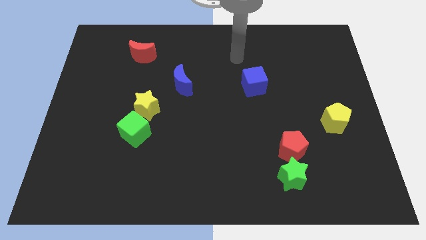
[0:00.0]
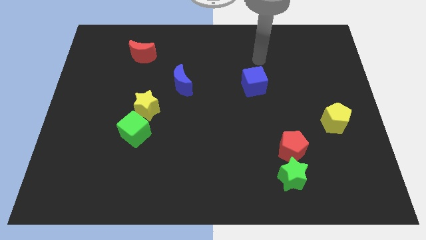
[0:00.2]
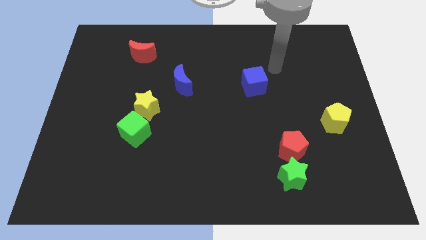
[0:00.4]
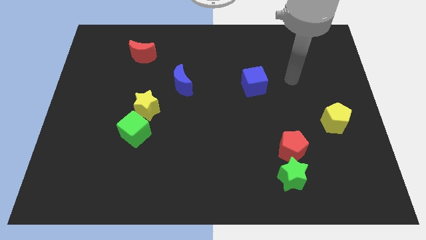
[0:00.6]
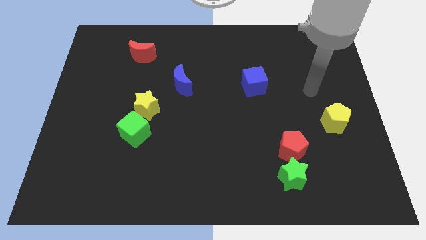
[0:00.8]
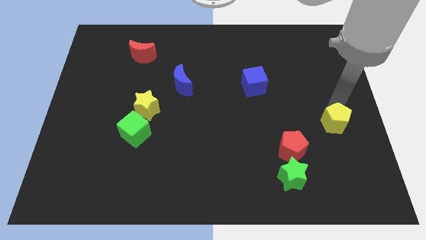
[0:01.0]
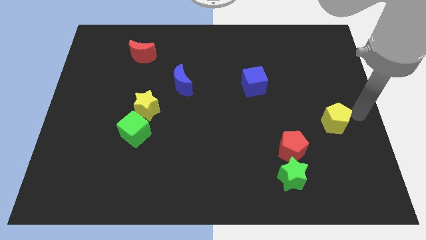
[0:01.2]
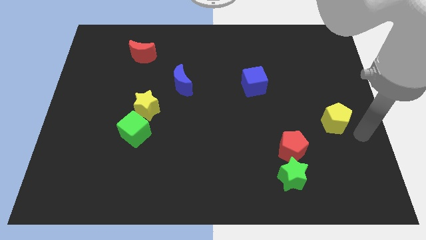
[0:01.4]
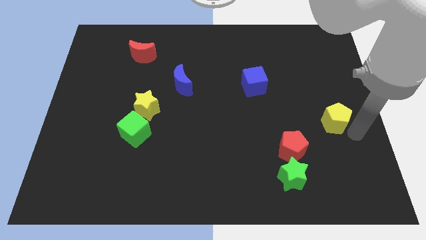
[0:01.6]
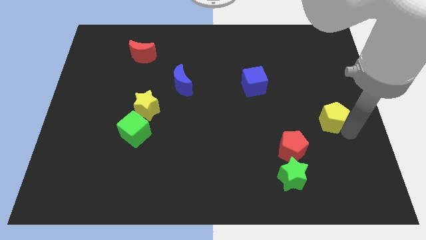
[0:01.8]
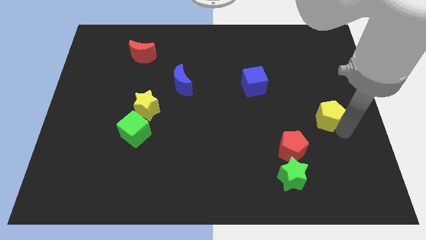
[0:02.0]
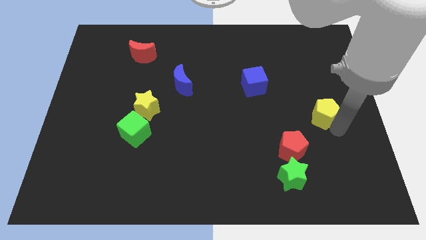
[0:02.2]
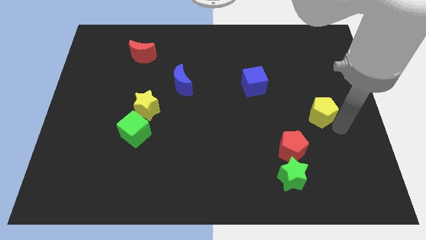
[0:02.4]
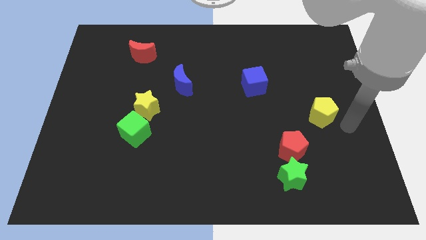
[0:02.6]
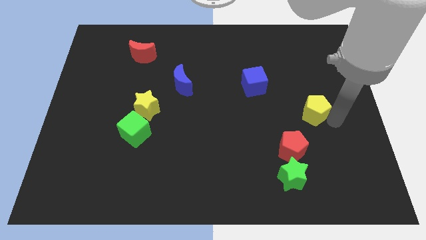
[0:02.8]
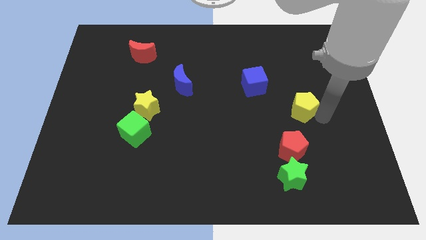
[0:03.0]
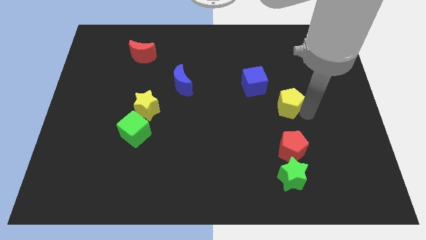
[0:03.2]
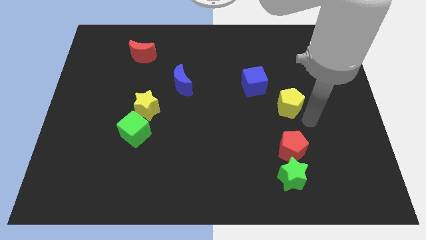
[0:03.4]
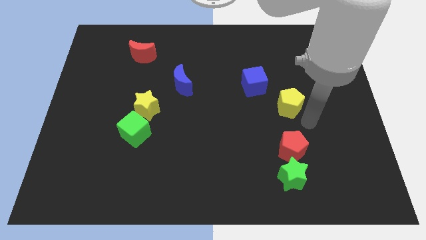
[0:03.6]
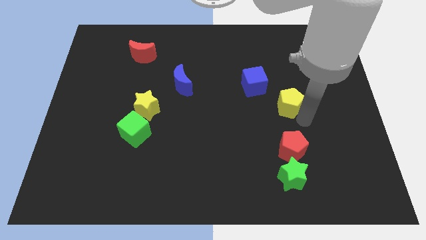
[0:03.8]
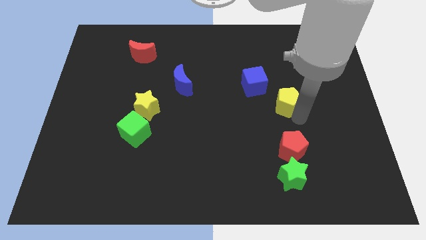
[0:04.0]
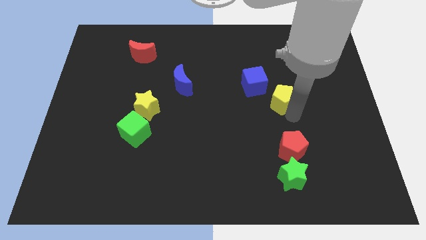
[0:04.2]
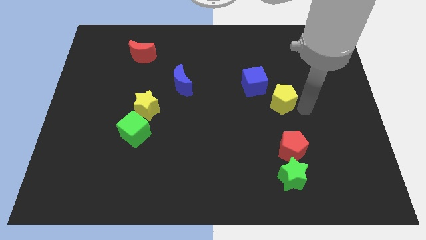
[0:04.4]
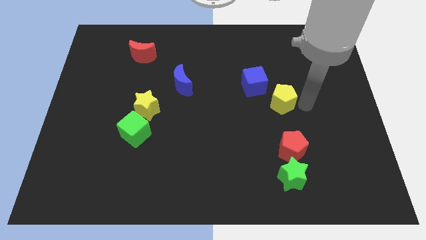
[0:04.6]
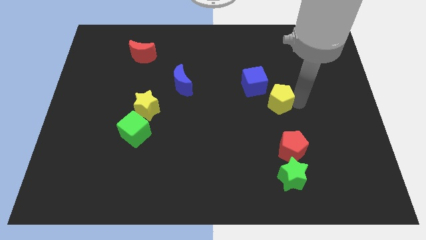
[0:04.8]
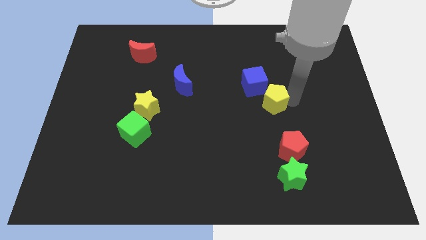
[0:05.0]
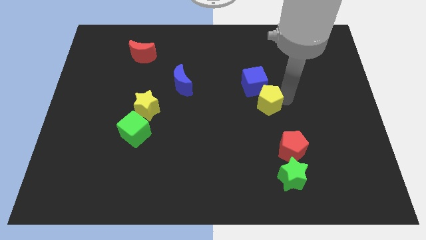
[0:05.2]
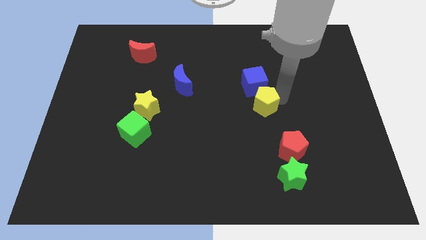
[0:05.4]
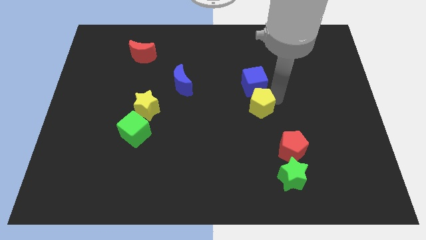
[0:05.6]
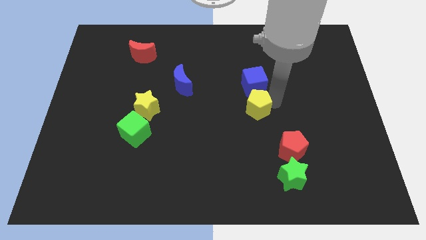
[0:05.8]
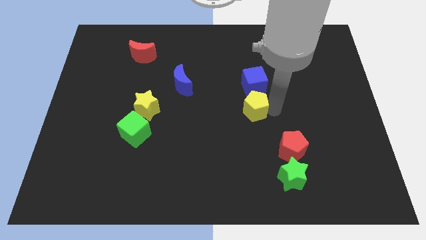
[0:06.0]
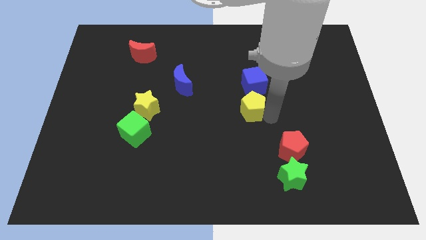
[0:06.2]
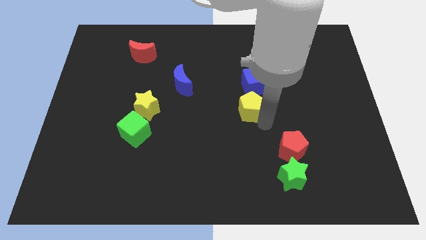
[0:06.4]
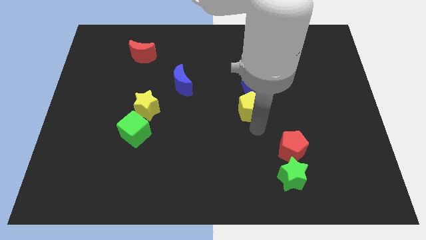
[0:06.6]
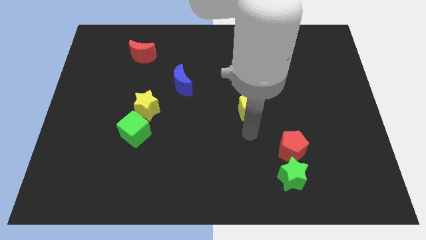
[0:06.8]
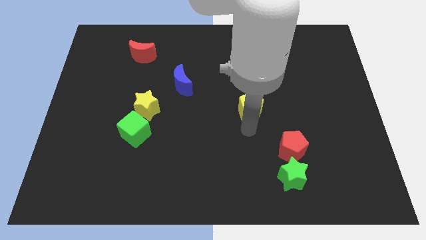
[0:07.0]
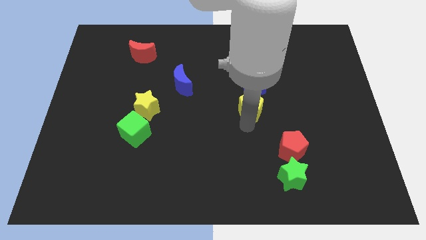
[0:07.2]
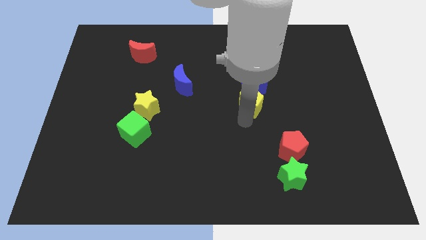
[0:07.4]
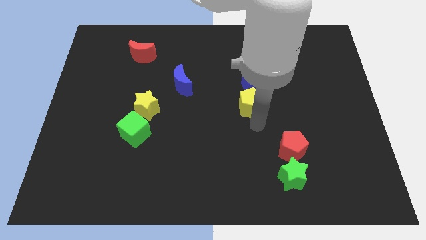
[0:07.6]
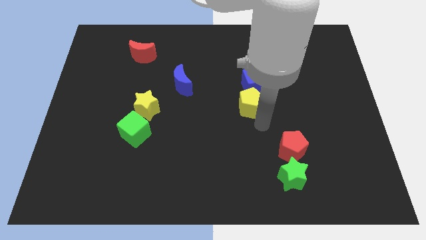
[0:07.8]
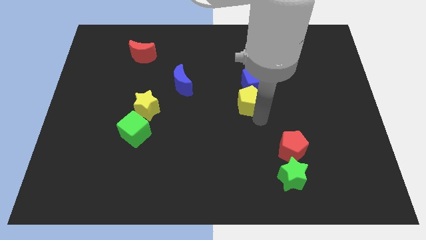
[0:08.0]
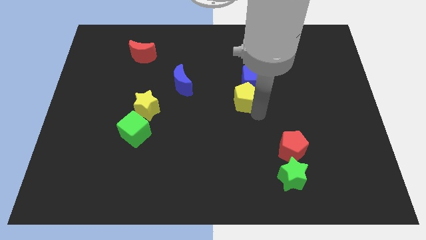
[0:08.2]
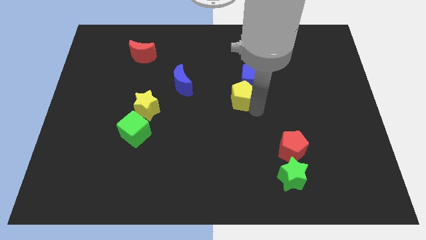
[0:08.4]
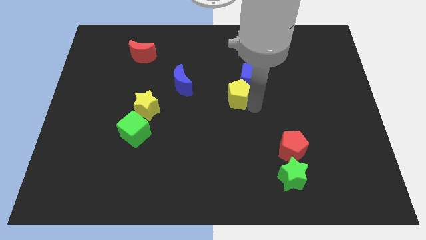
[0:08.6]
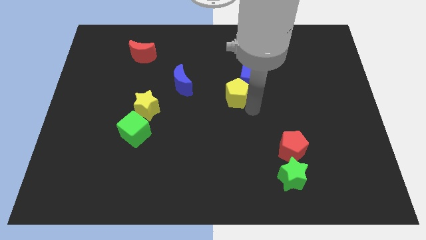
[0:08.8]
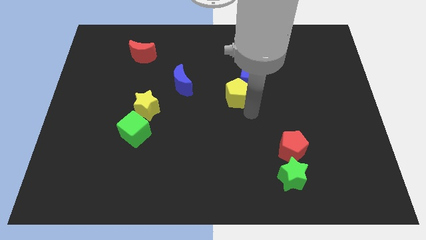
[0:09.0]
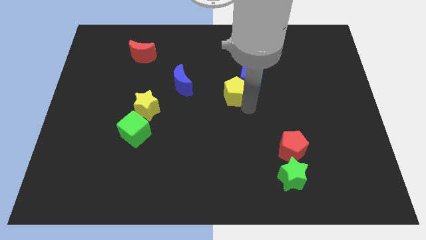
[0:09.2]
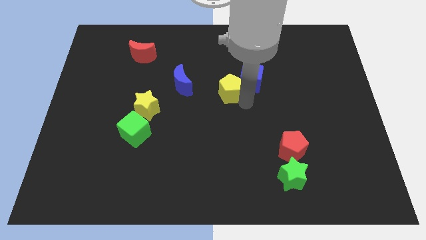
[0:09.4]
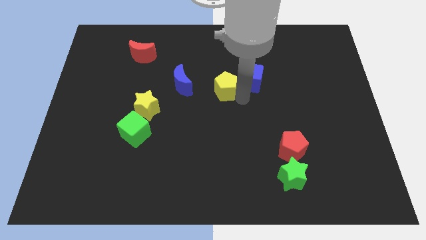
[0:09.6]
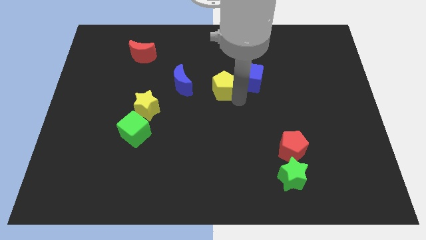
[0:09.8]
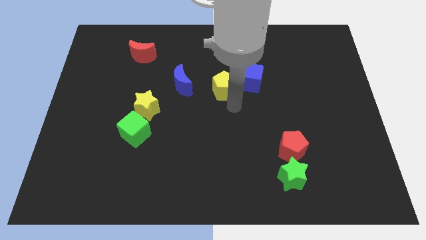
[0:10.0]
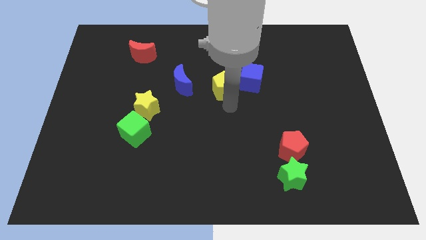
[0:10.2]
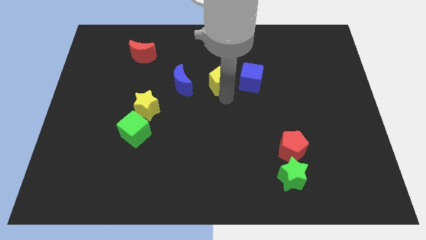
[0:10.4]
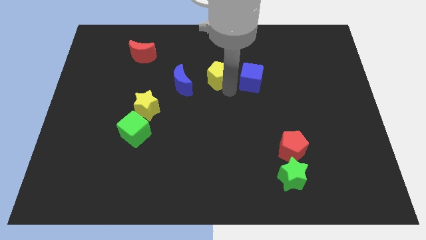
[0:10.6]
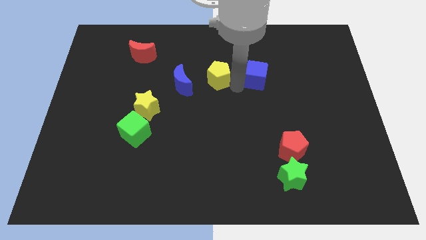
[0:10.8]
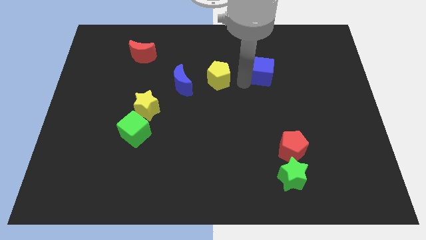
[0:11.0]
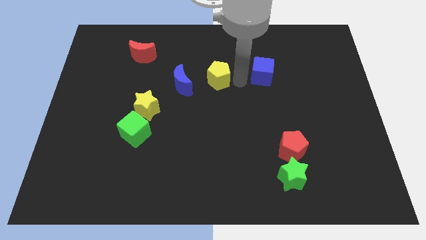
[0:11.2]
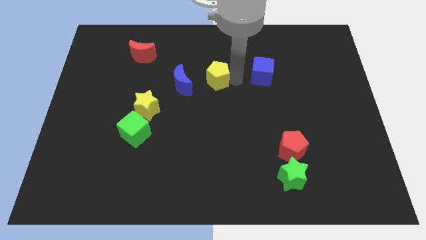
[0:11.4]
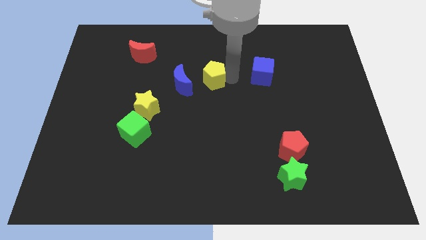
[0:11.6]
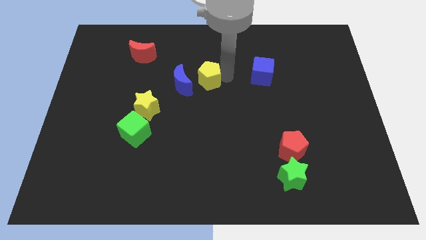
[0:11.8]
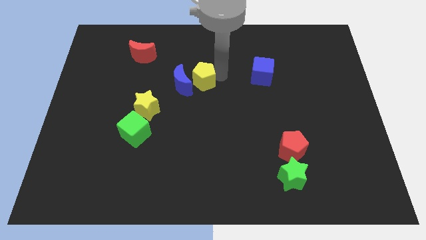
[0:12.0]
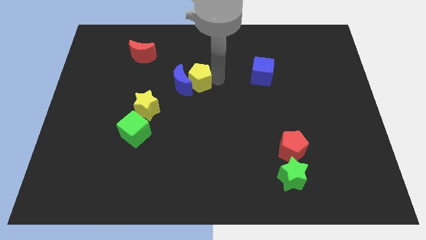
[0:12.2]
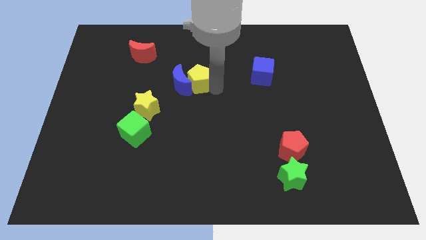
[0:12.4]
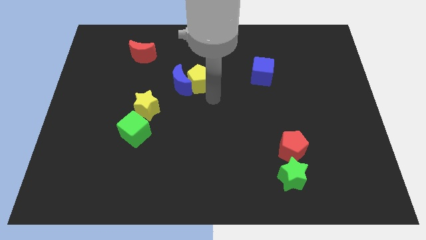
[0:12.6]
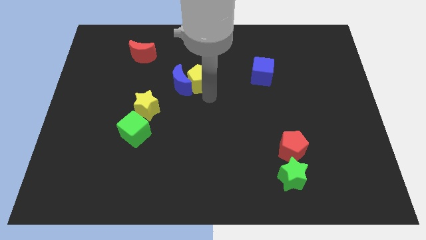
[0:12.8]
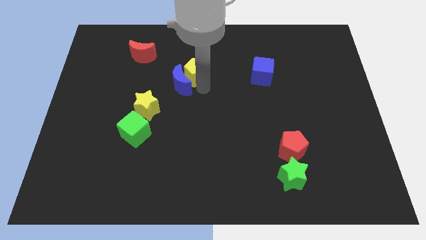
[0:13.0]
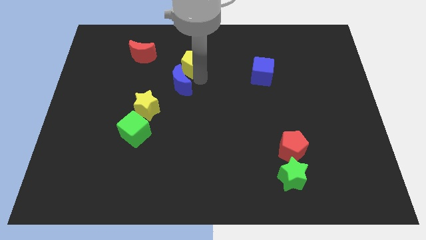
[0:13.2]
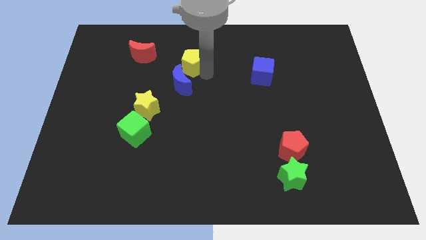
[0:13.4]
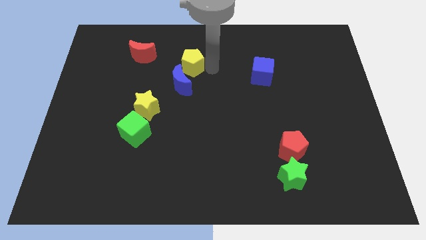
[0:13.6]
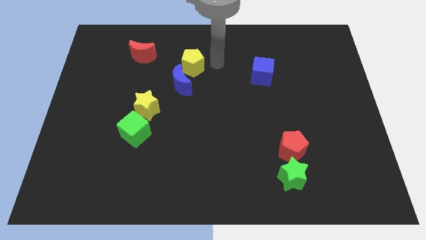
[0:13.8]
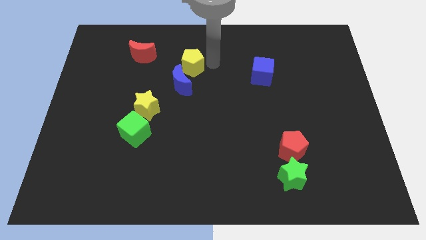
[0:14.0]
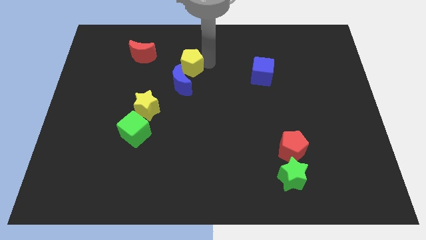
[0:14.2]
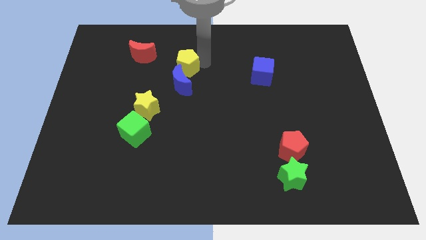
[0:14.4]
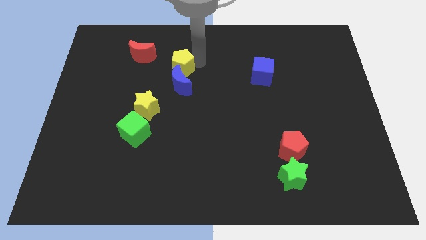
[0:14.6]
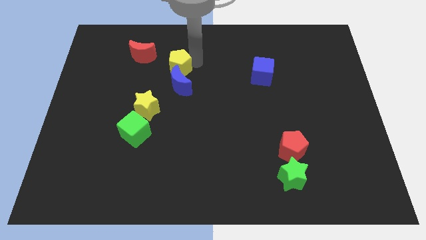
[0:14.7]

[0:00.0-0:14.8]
move the yellow pentagon to the bottom right side of the red moon

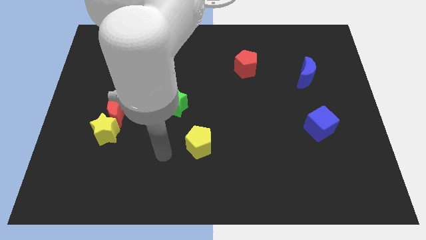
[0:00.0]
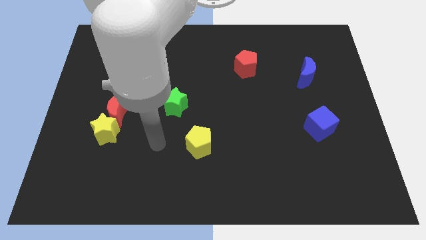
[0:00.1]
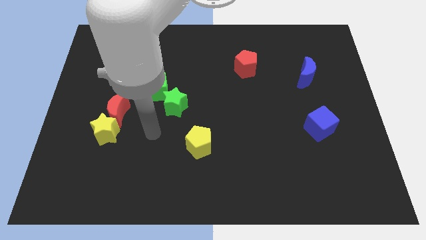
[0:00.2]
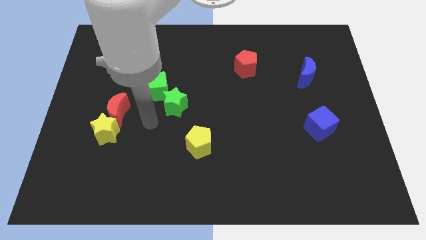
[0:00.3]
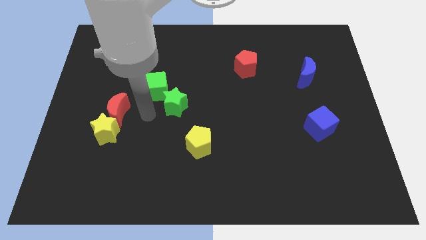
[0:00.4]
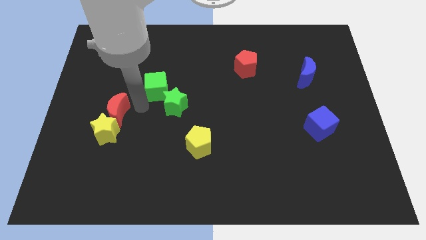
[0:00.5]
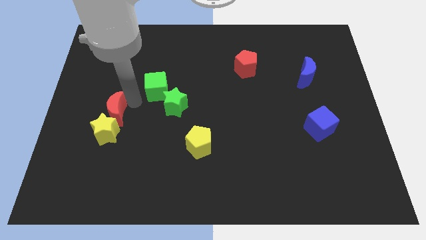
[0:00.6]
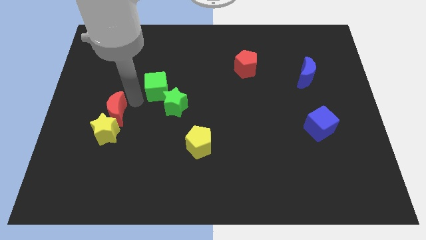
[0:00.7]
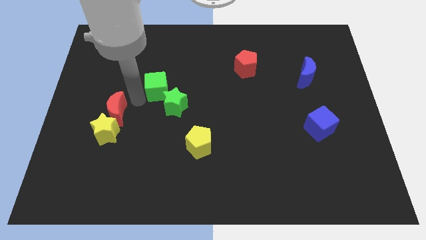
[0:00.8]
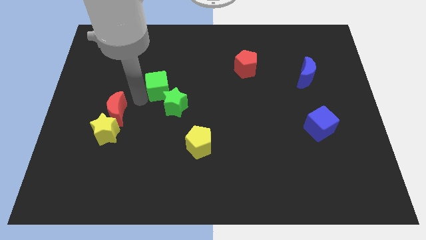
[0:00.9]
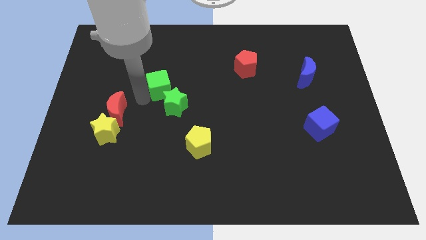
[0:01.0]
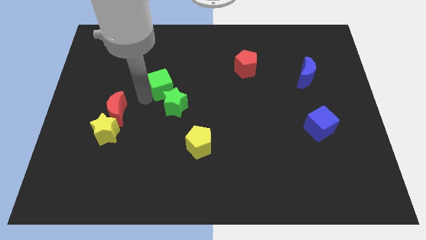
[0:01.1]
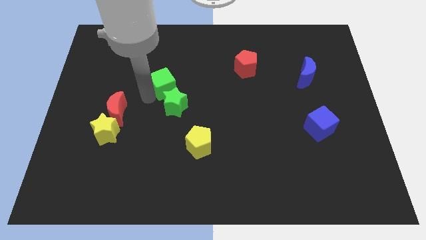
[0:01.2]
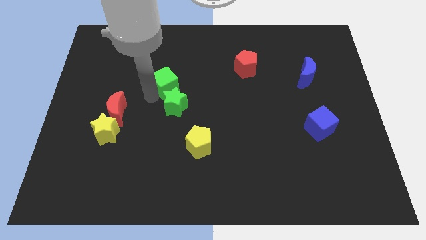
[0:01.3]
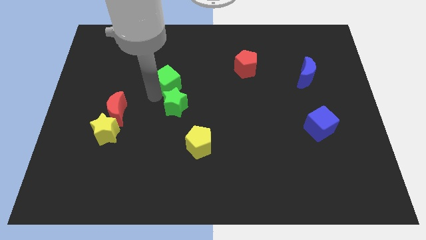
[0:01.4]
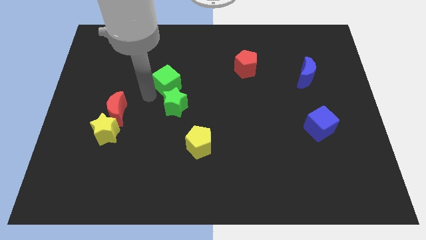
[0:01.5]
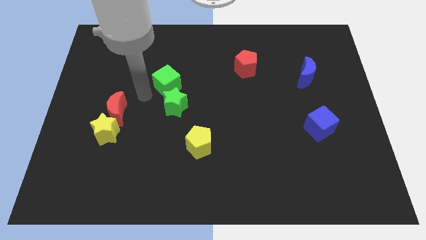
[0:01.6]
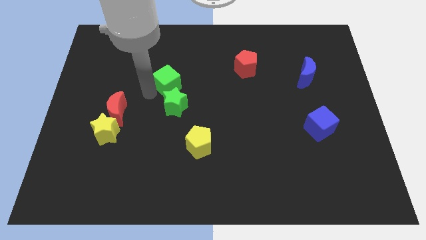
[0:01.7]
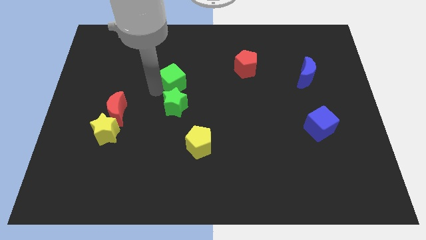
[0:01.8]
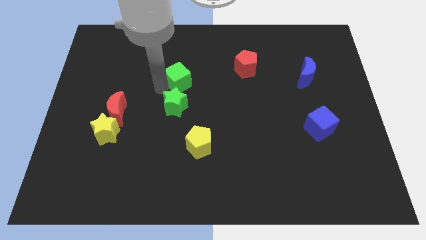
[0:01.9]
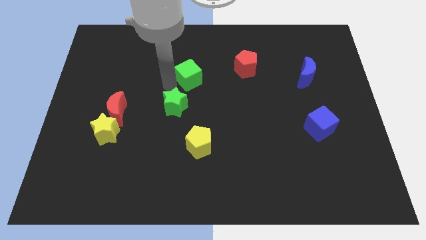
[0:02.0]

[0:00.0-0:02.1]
move the green cube to the left side of the red pentagon
